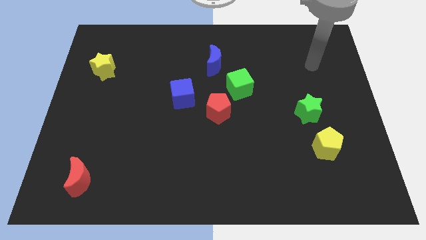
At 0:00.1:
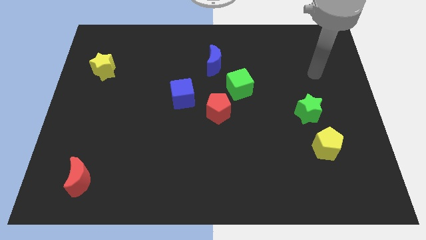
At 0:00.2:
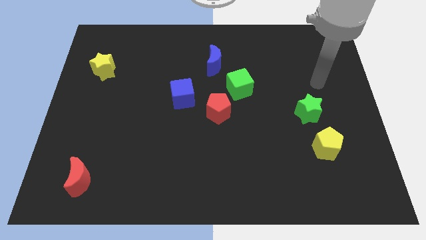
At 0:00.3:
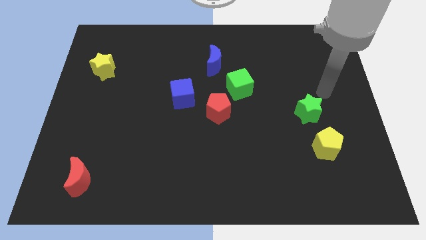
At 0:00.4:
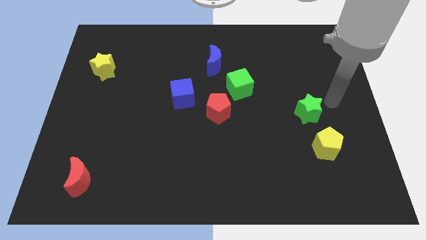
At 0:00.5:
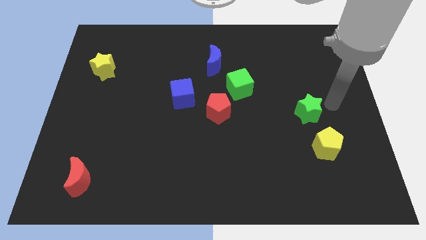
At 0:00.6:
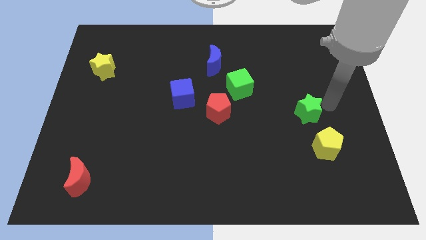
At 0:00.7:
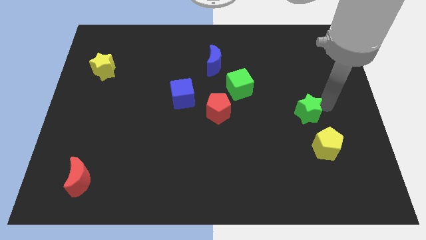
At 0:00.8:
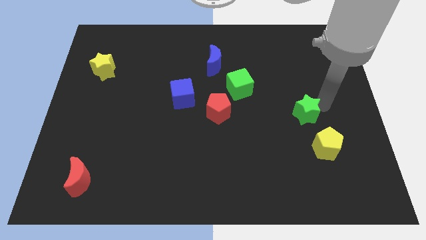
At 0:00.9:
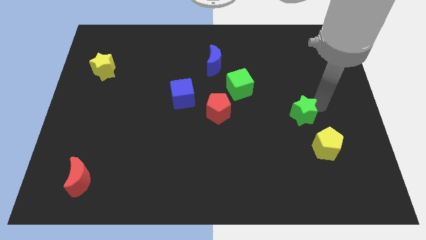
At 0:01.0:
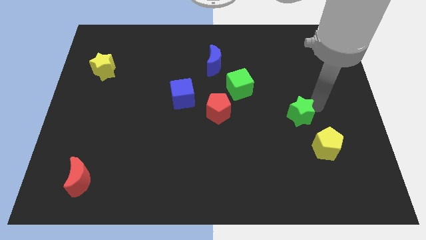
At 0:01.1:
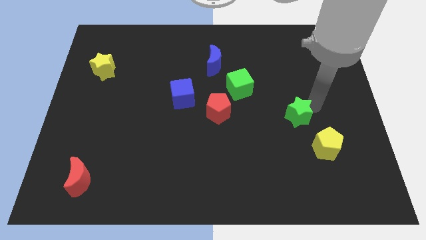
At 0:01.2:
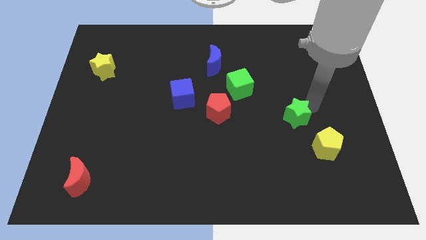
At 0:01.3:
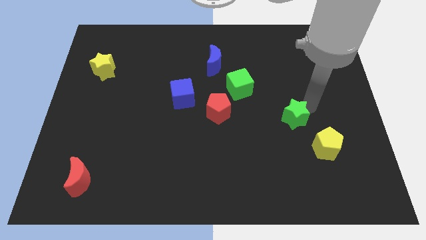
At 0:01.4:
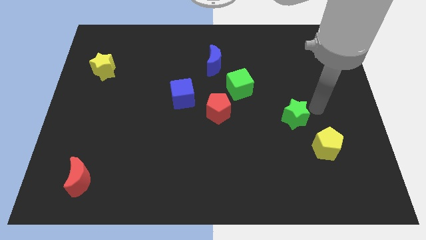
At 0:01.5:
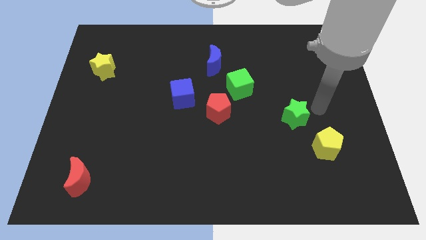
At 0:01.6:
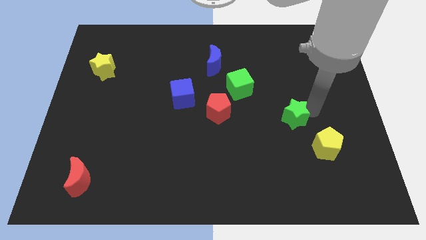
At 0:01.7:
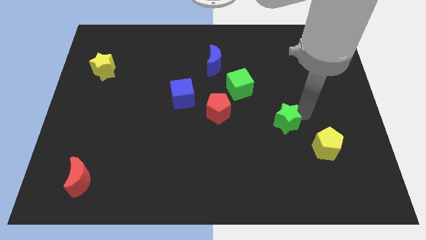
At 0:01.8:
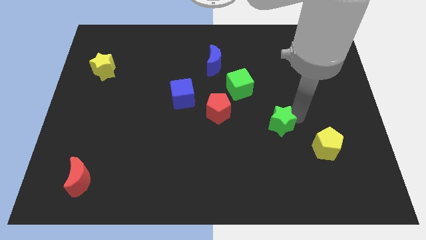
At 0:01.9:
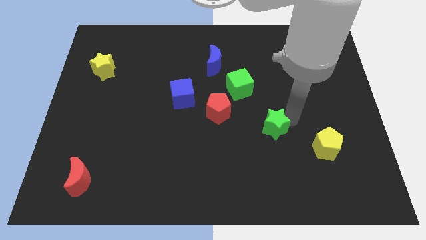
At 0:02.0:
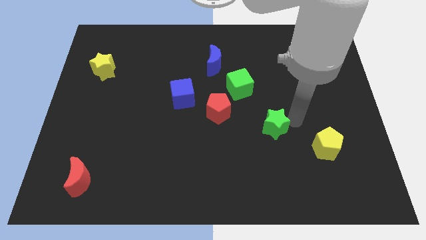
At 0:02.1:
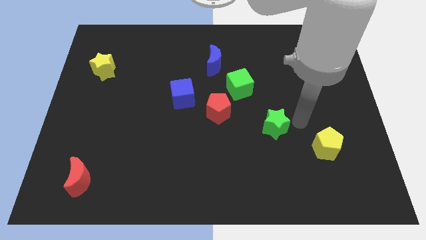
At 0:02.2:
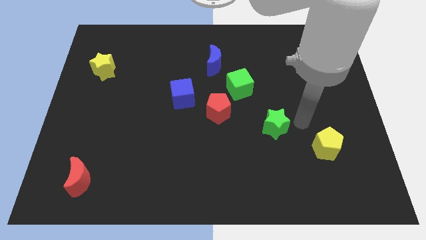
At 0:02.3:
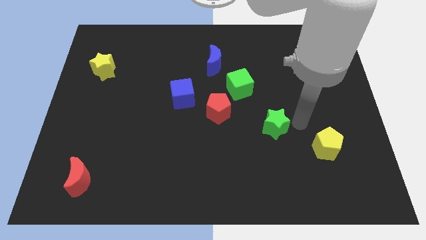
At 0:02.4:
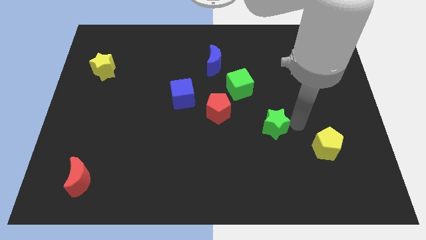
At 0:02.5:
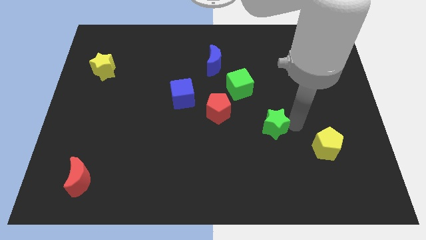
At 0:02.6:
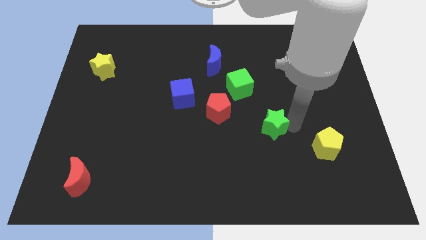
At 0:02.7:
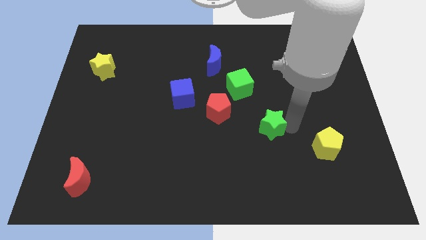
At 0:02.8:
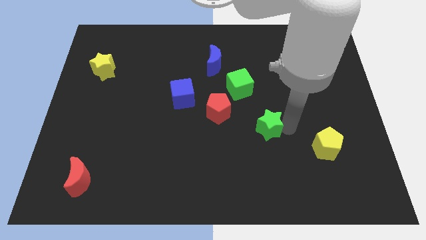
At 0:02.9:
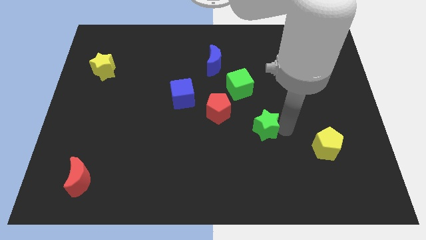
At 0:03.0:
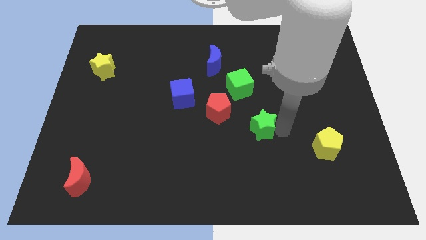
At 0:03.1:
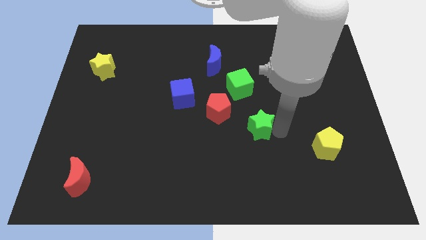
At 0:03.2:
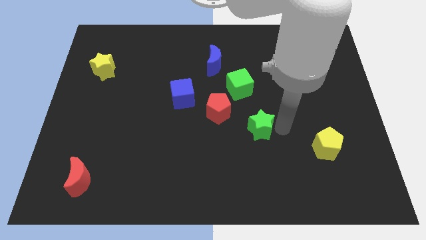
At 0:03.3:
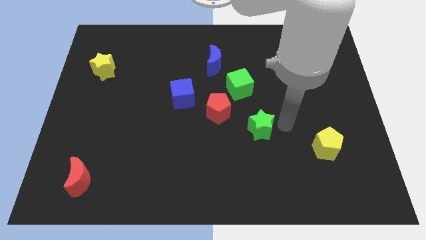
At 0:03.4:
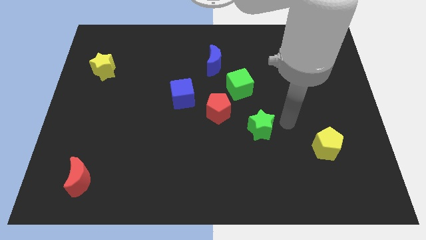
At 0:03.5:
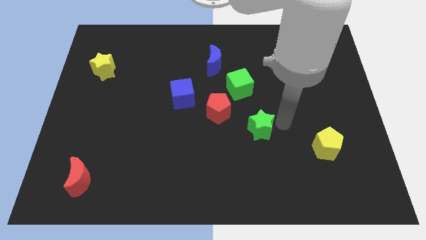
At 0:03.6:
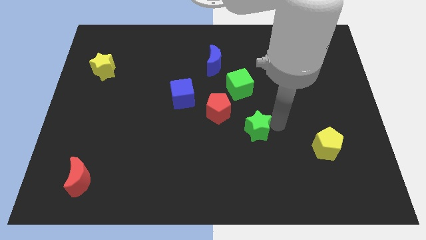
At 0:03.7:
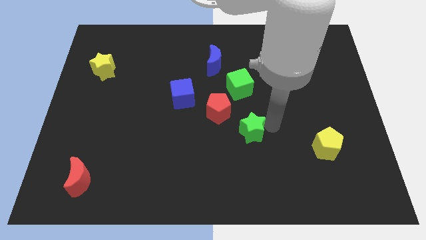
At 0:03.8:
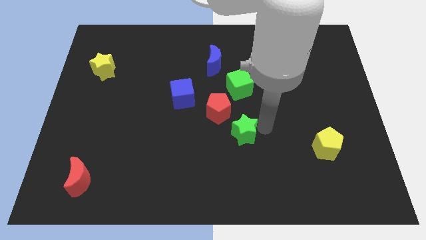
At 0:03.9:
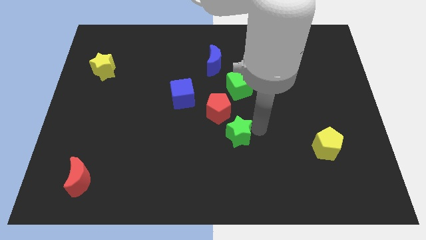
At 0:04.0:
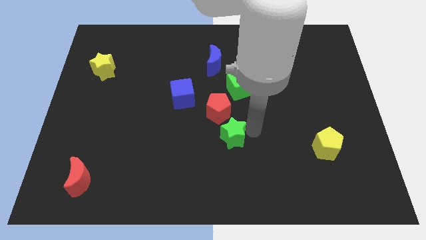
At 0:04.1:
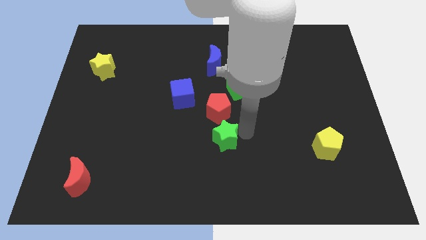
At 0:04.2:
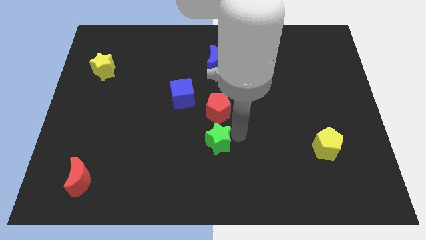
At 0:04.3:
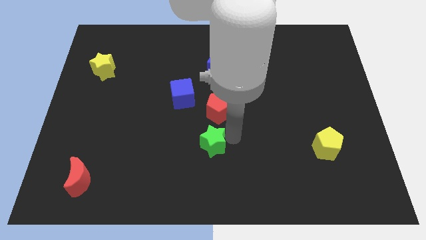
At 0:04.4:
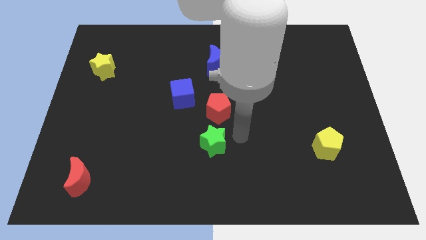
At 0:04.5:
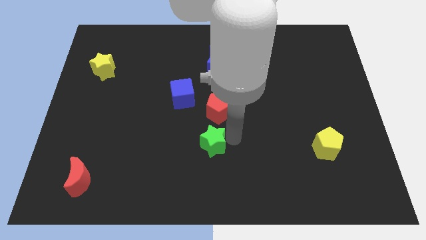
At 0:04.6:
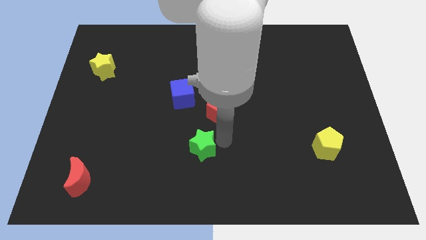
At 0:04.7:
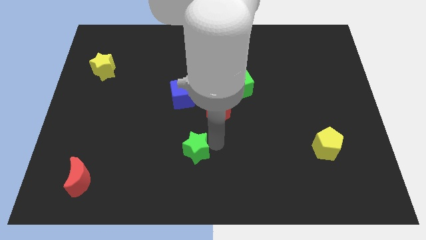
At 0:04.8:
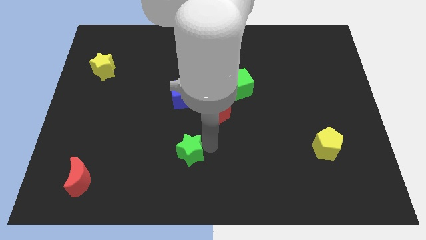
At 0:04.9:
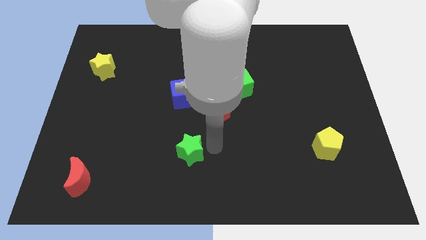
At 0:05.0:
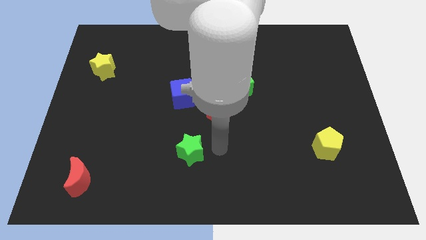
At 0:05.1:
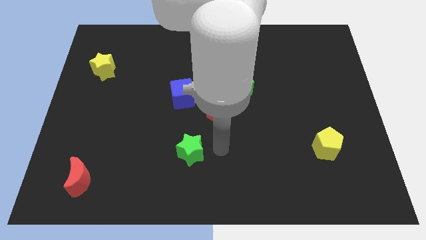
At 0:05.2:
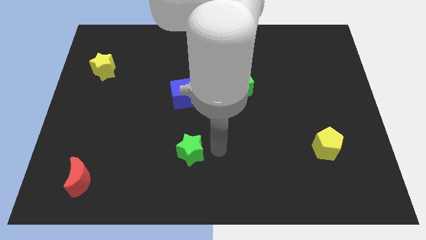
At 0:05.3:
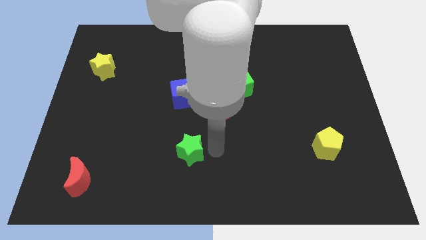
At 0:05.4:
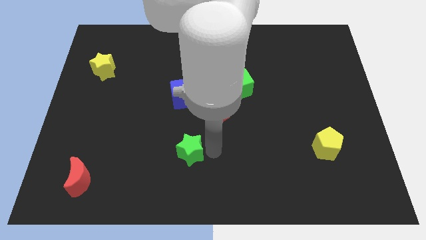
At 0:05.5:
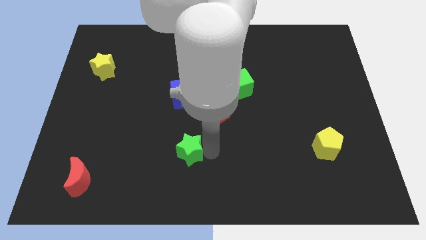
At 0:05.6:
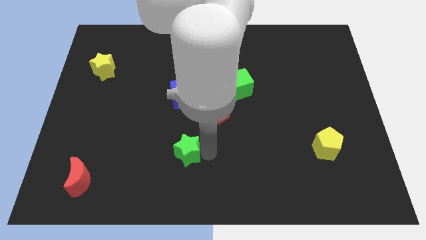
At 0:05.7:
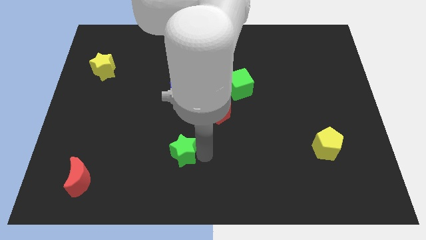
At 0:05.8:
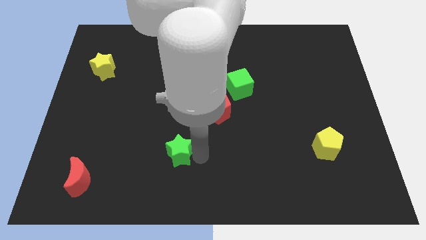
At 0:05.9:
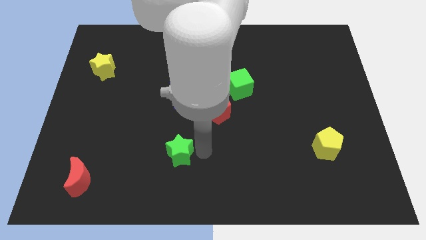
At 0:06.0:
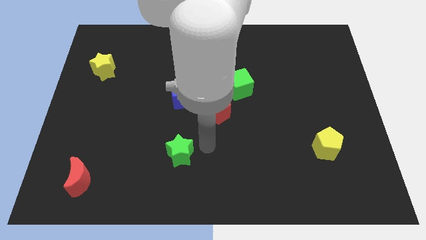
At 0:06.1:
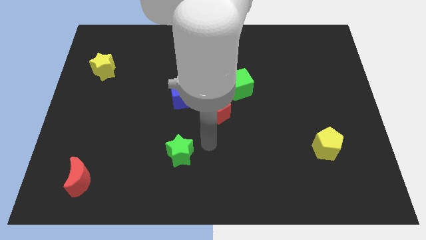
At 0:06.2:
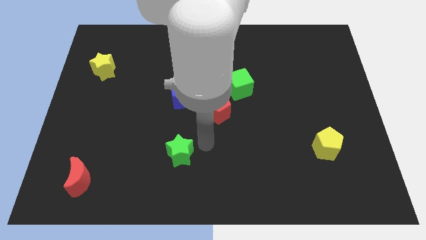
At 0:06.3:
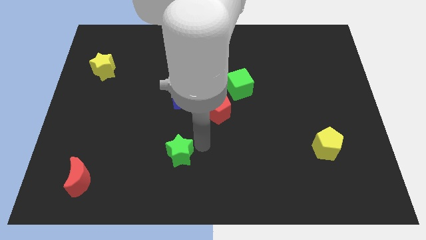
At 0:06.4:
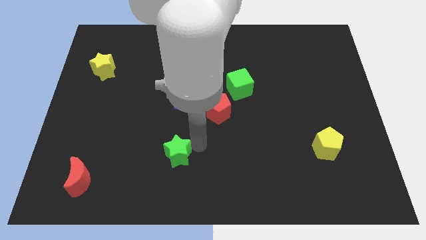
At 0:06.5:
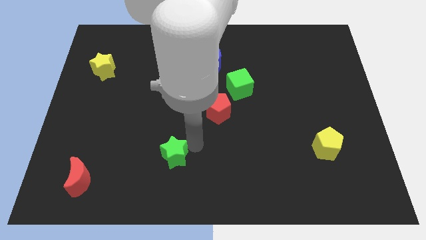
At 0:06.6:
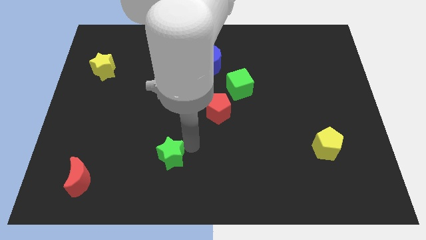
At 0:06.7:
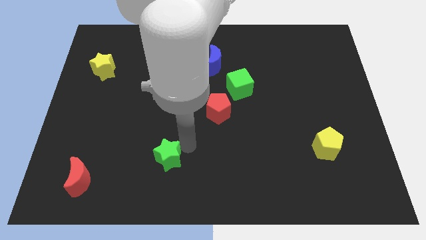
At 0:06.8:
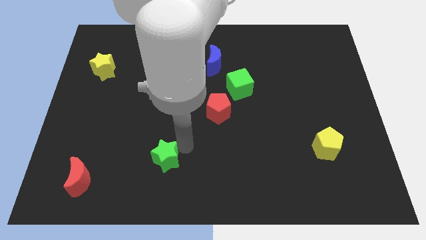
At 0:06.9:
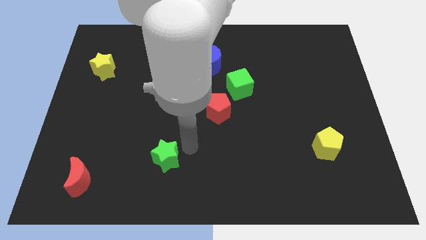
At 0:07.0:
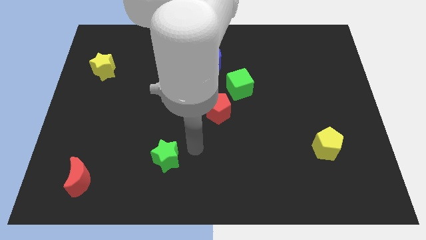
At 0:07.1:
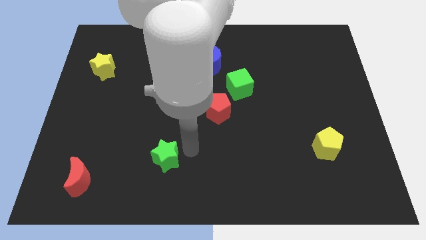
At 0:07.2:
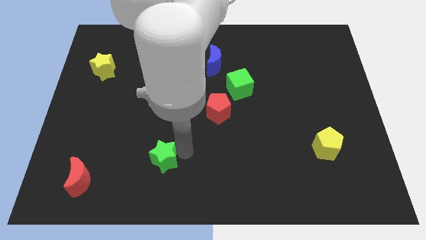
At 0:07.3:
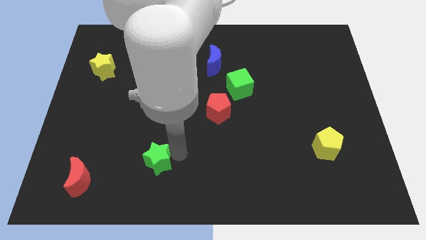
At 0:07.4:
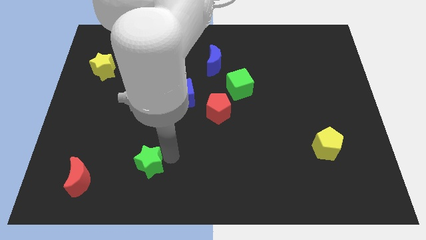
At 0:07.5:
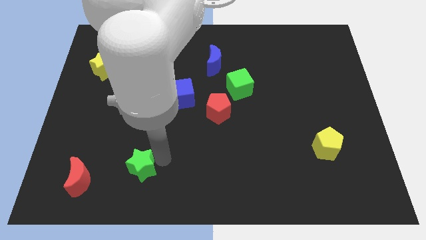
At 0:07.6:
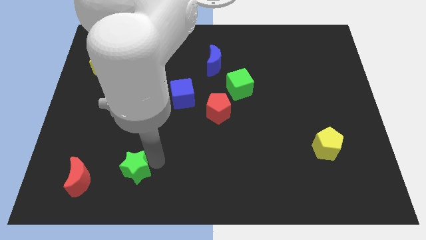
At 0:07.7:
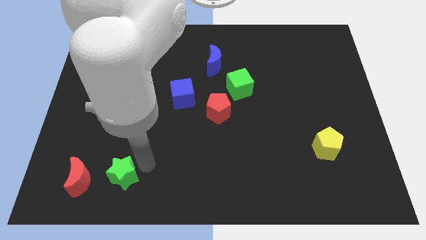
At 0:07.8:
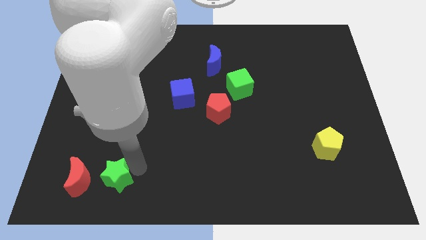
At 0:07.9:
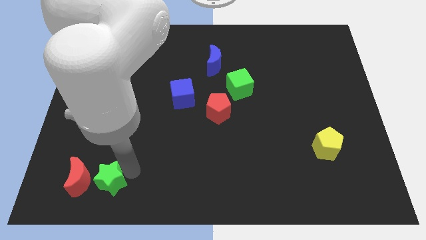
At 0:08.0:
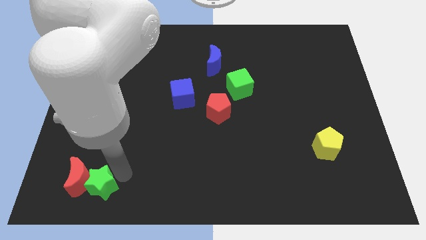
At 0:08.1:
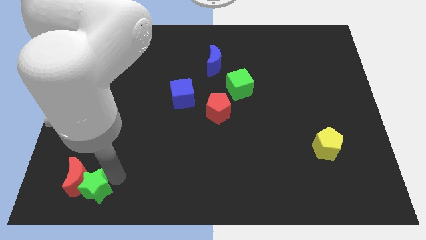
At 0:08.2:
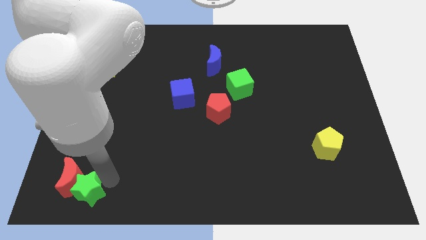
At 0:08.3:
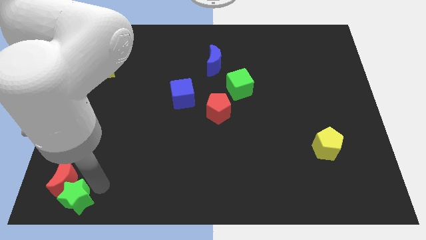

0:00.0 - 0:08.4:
put the green star to the bottom left corner
